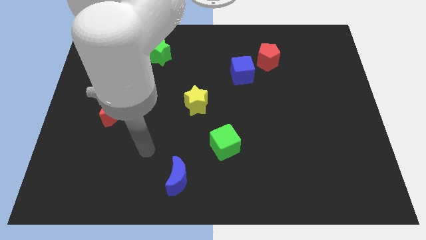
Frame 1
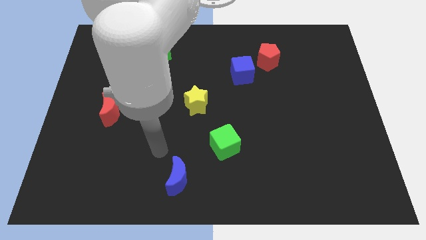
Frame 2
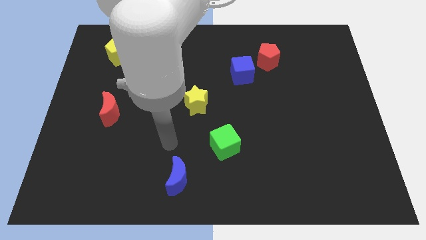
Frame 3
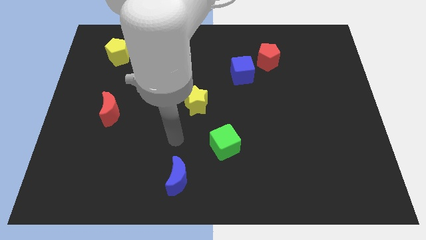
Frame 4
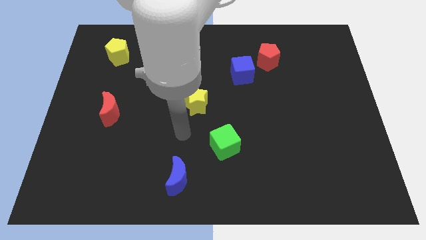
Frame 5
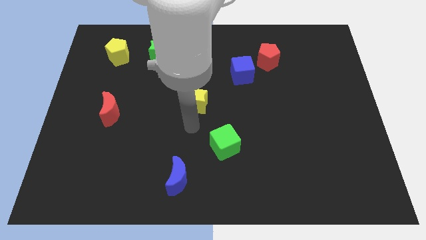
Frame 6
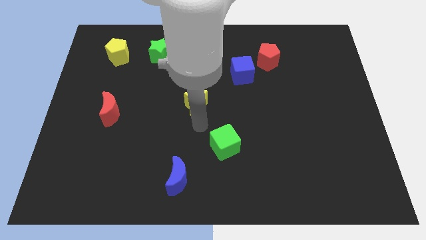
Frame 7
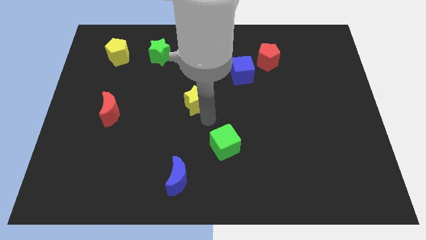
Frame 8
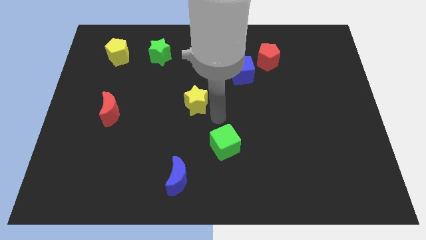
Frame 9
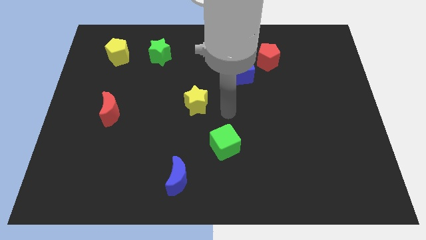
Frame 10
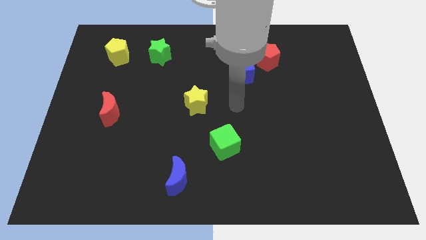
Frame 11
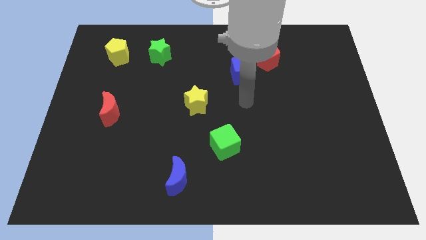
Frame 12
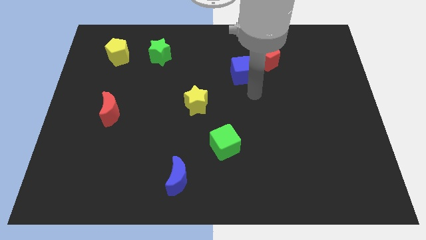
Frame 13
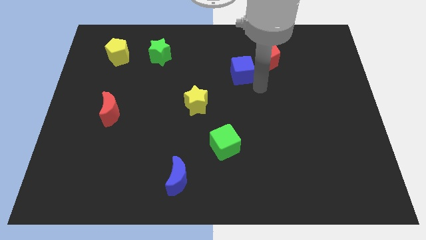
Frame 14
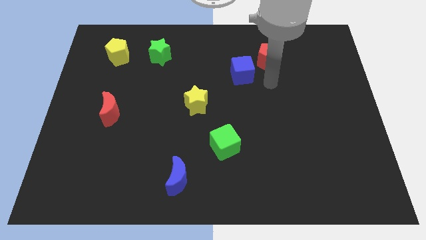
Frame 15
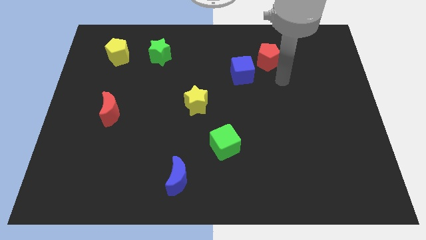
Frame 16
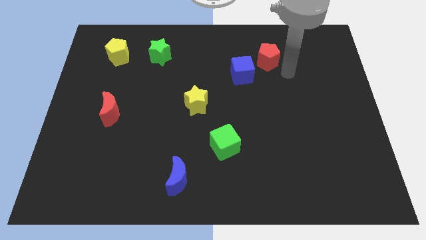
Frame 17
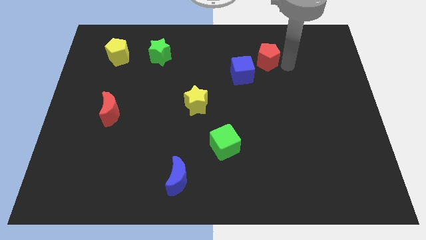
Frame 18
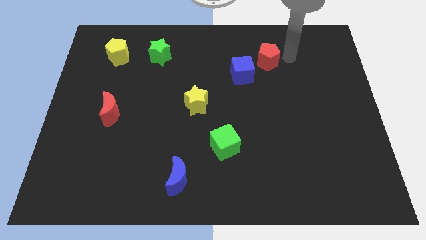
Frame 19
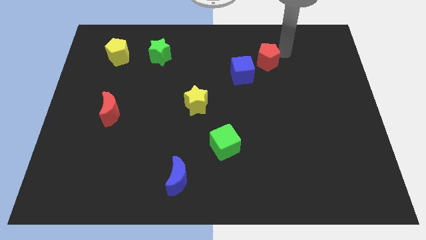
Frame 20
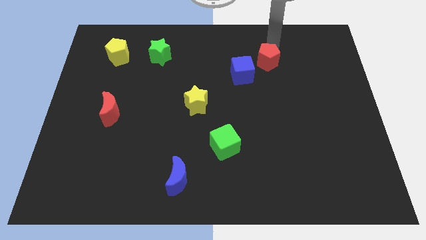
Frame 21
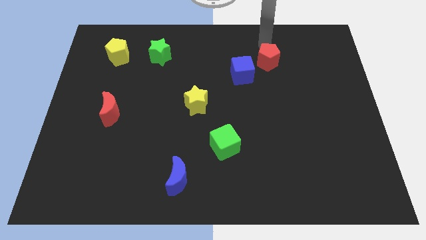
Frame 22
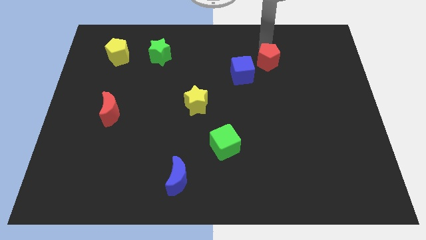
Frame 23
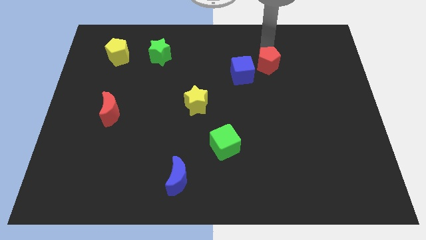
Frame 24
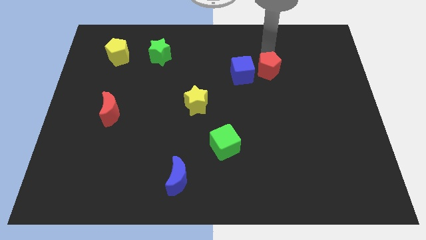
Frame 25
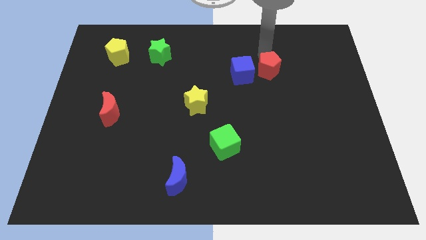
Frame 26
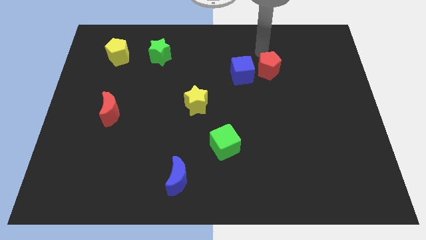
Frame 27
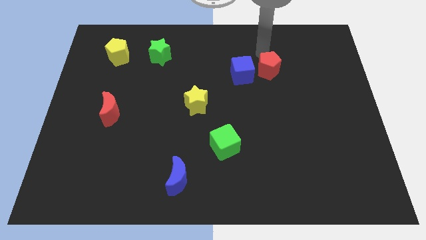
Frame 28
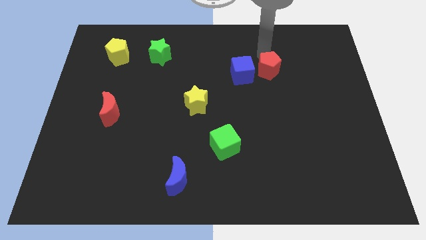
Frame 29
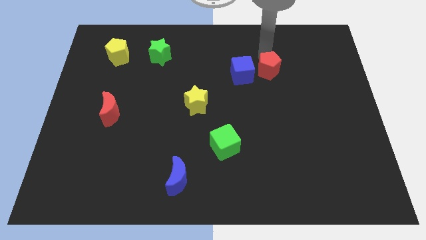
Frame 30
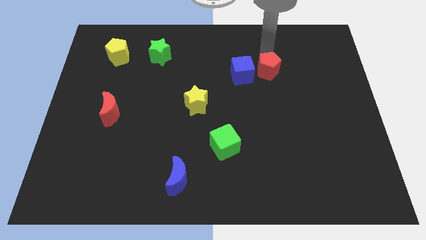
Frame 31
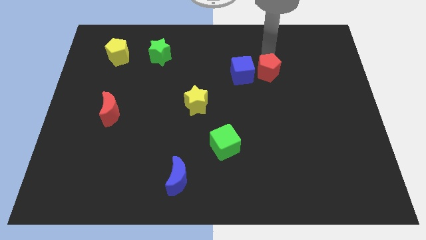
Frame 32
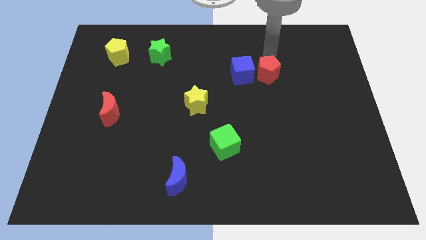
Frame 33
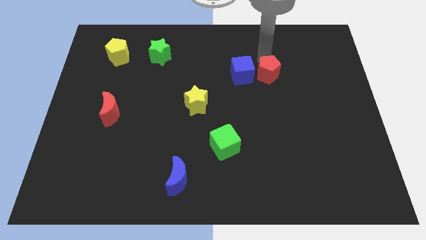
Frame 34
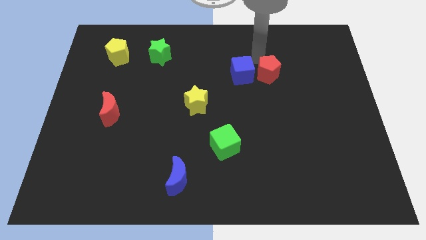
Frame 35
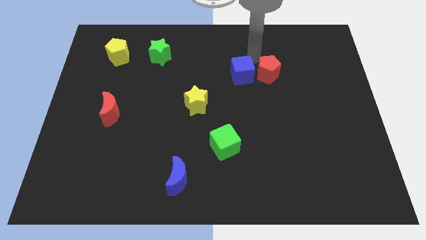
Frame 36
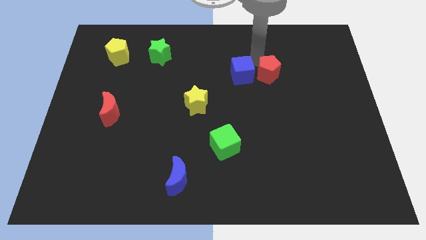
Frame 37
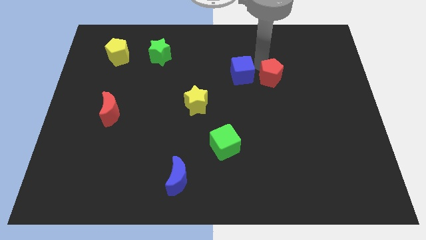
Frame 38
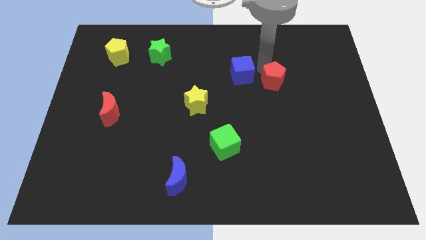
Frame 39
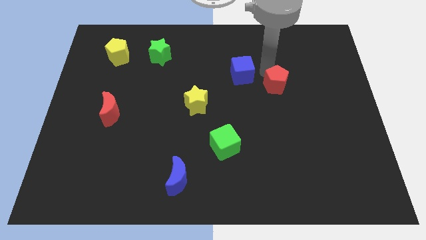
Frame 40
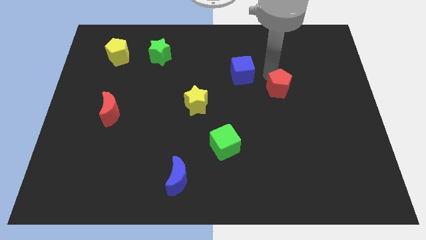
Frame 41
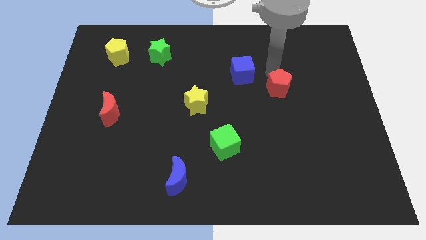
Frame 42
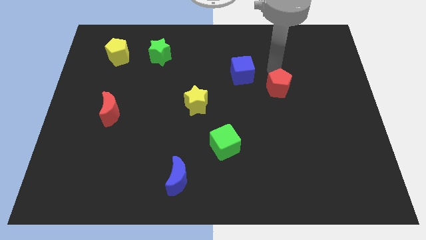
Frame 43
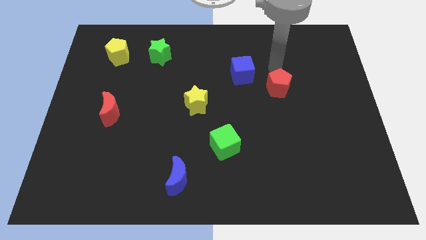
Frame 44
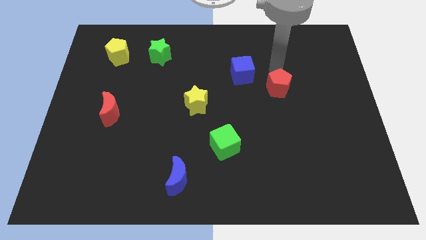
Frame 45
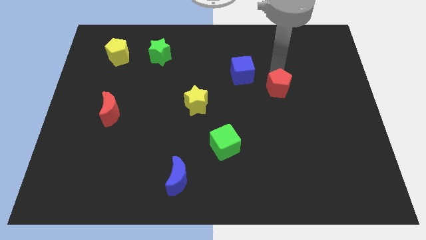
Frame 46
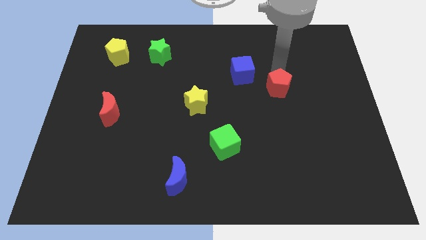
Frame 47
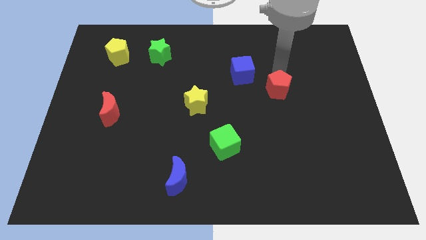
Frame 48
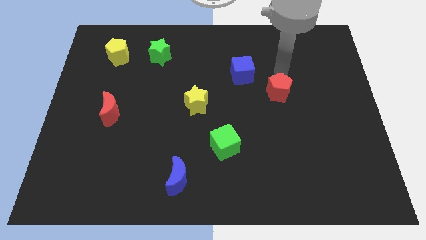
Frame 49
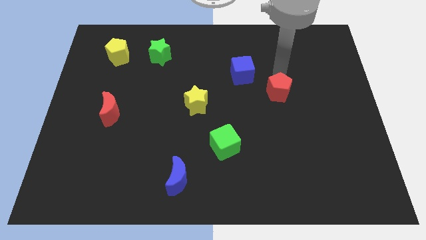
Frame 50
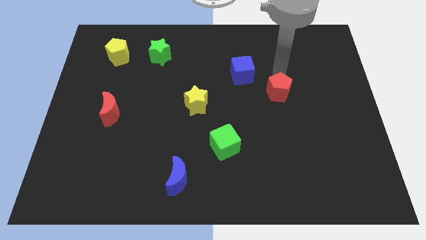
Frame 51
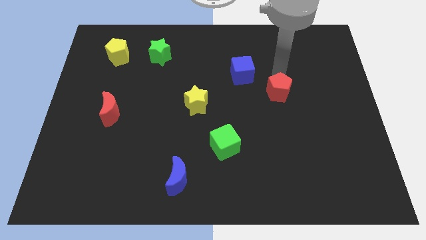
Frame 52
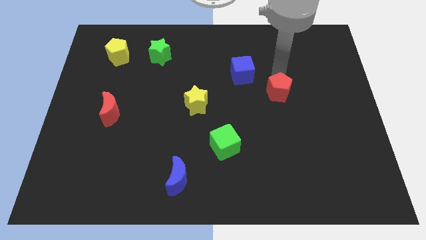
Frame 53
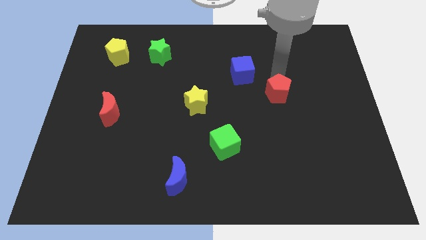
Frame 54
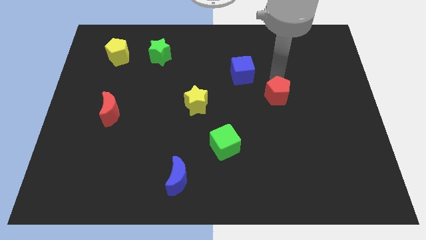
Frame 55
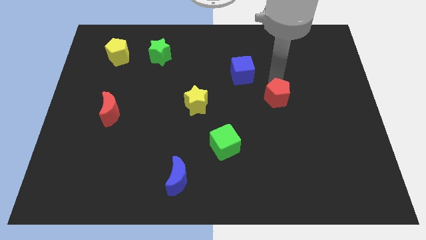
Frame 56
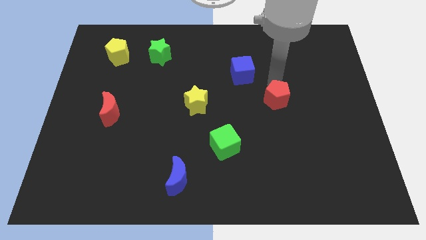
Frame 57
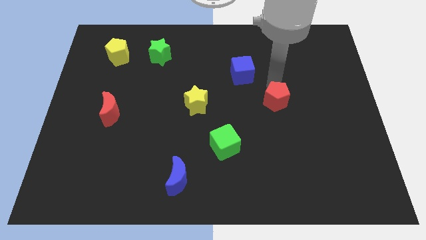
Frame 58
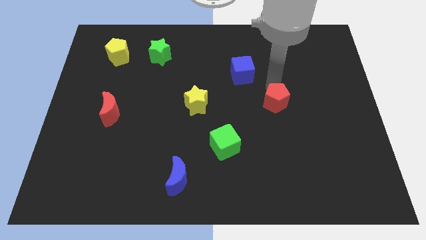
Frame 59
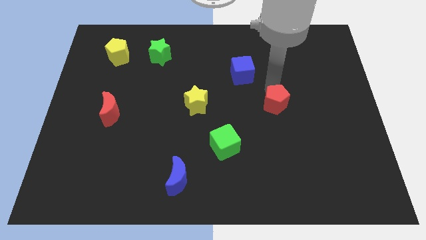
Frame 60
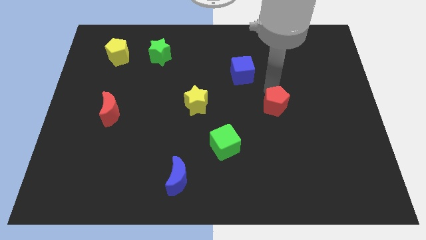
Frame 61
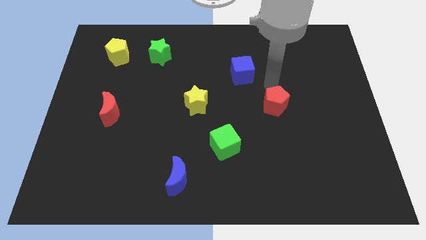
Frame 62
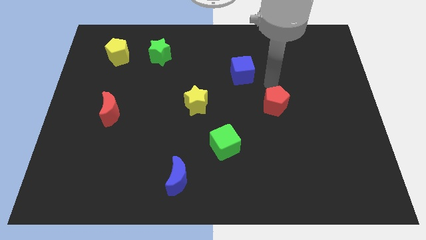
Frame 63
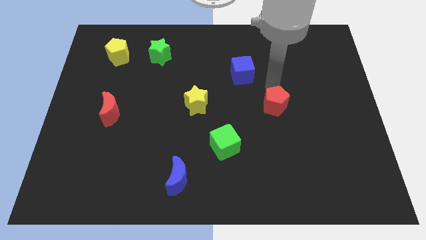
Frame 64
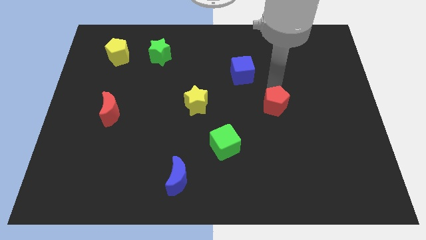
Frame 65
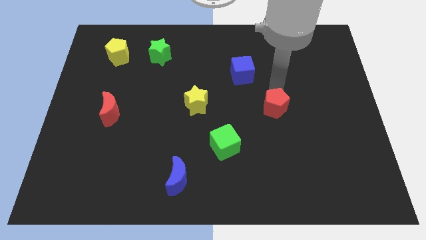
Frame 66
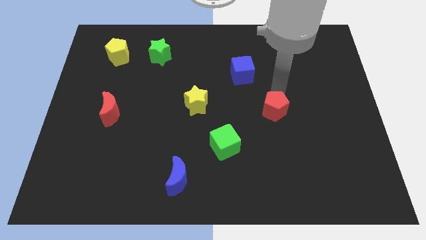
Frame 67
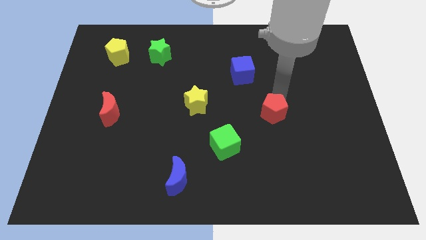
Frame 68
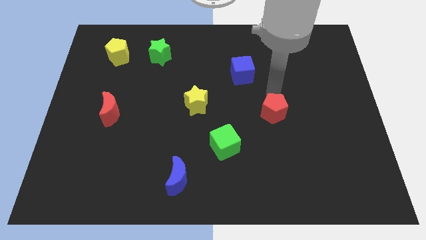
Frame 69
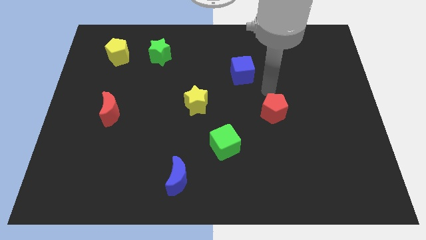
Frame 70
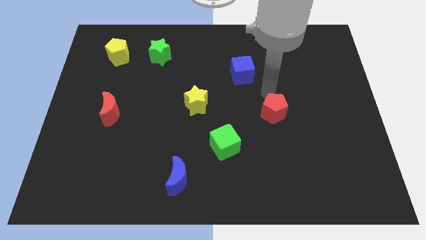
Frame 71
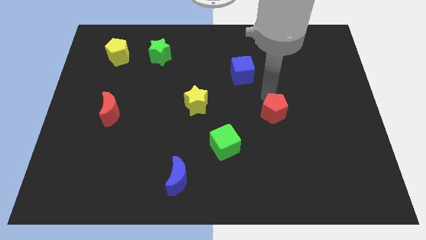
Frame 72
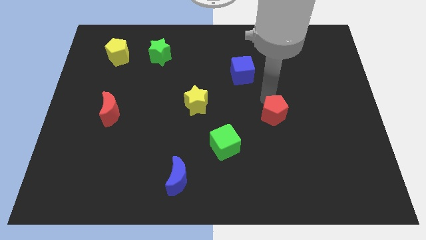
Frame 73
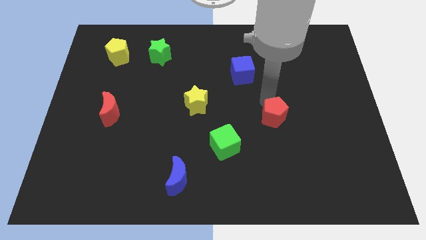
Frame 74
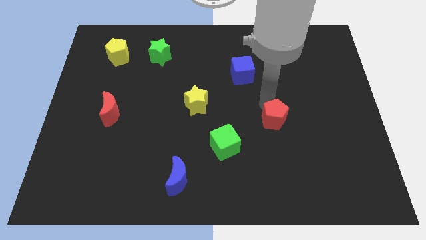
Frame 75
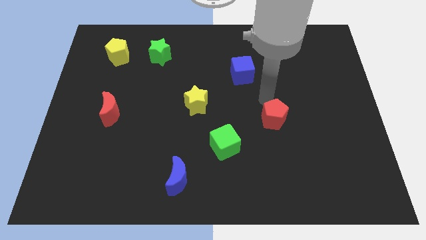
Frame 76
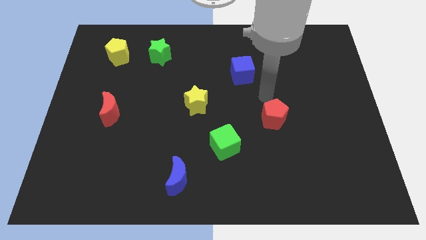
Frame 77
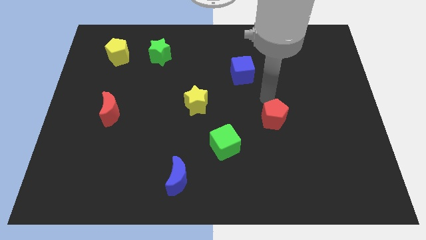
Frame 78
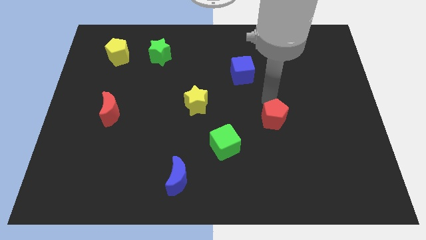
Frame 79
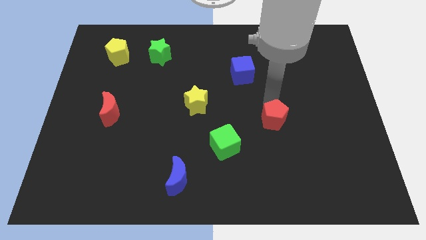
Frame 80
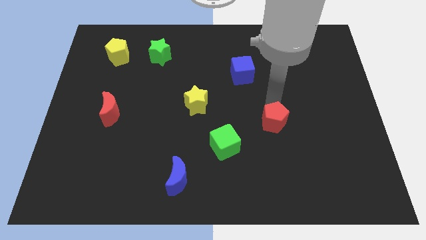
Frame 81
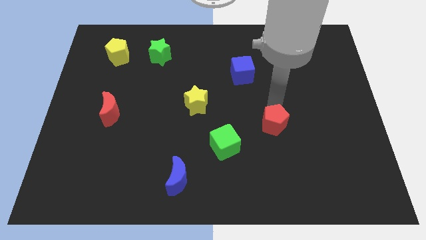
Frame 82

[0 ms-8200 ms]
slide the red pentagon downwards
